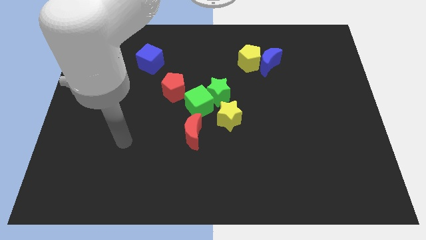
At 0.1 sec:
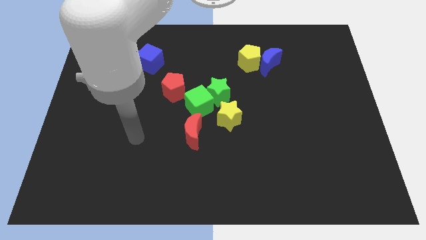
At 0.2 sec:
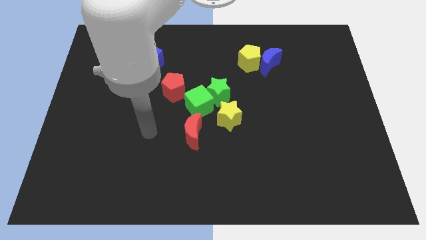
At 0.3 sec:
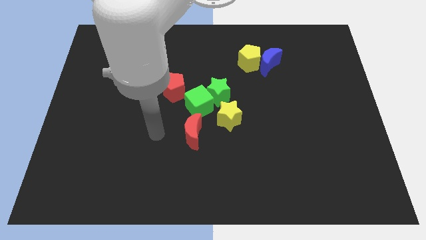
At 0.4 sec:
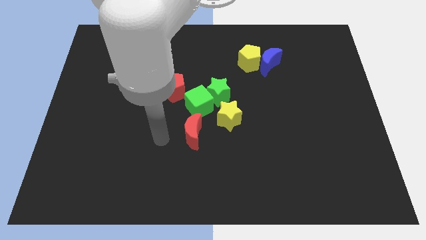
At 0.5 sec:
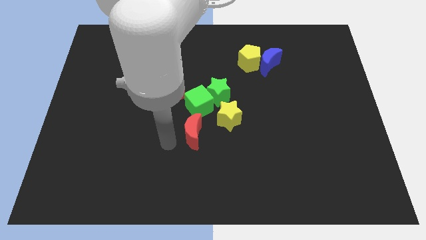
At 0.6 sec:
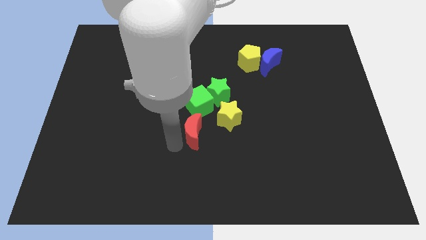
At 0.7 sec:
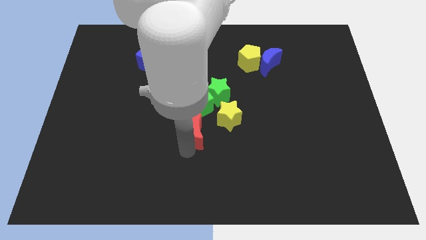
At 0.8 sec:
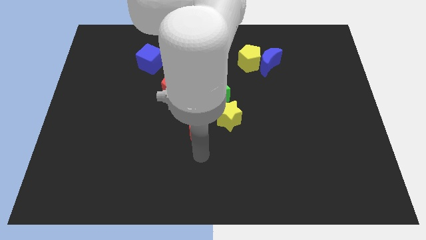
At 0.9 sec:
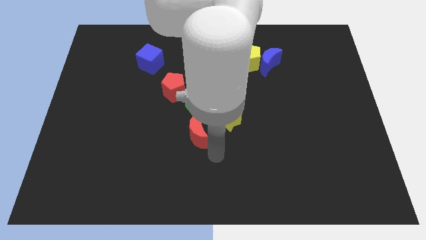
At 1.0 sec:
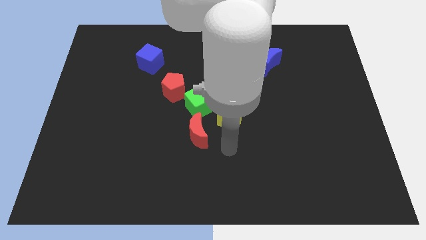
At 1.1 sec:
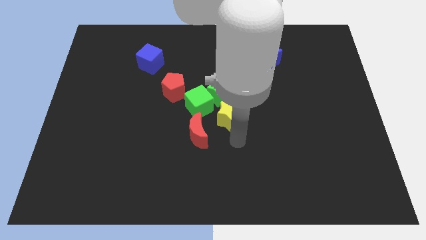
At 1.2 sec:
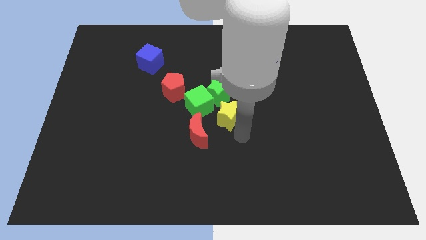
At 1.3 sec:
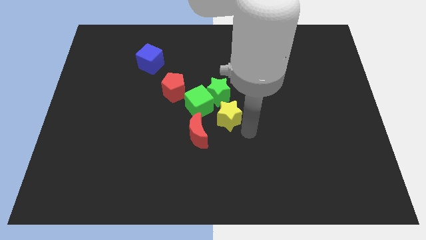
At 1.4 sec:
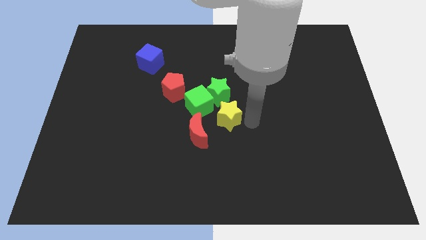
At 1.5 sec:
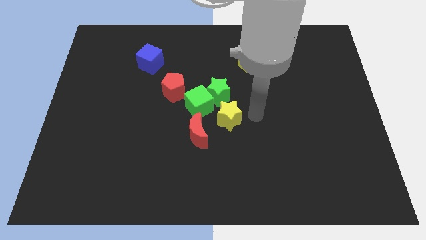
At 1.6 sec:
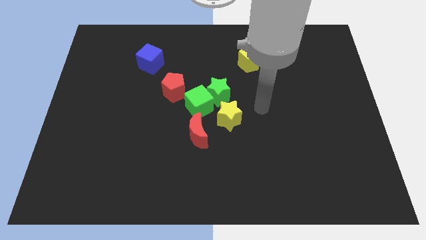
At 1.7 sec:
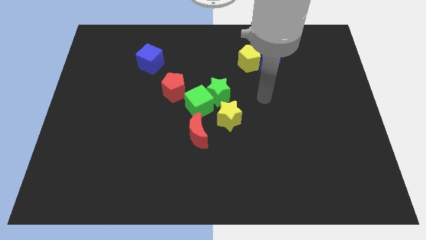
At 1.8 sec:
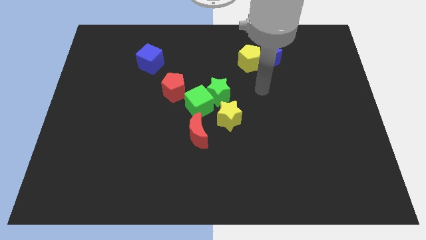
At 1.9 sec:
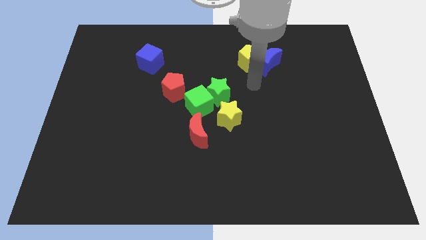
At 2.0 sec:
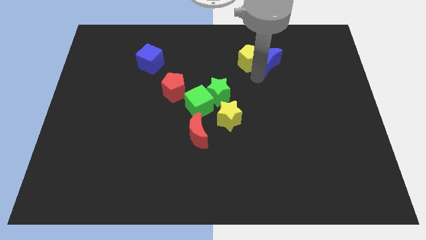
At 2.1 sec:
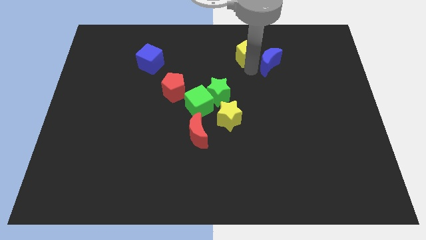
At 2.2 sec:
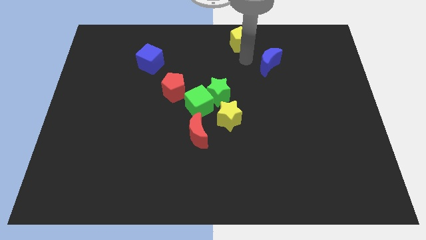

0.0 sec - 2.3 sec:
separate the blue moon from the yellow pentagon

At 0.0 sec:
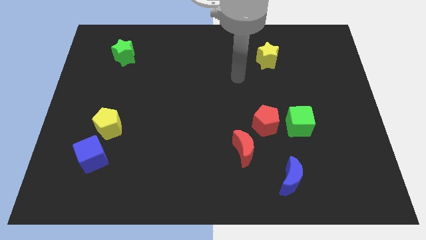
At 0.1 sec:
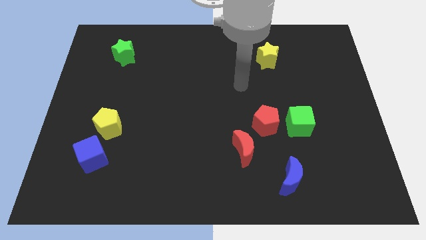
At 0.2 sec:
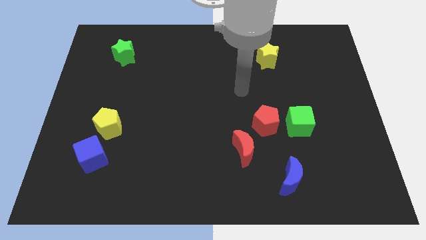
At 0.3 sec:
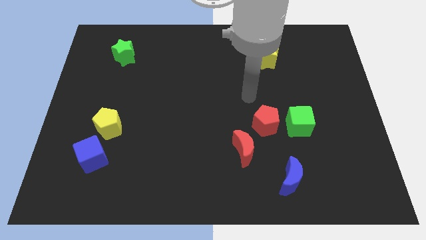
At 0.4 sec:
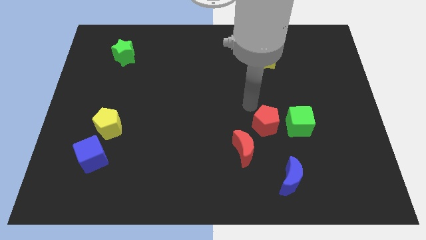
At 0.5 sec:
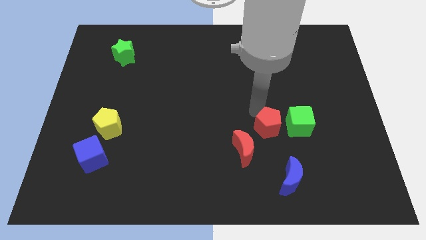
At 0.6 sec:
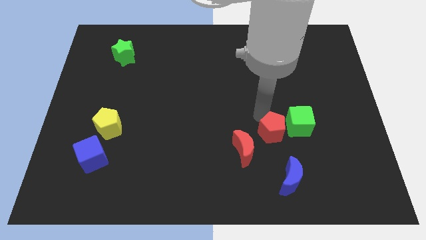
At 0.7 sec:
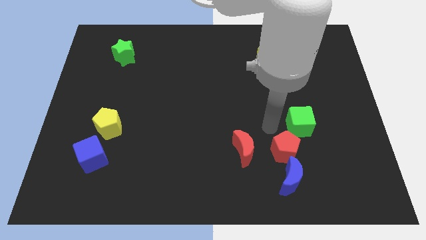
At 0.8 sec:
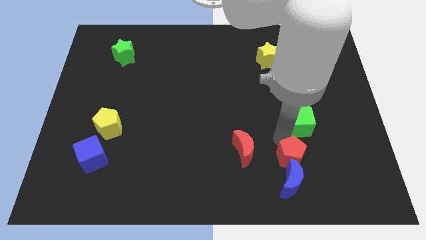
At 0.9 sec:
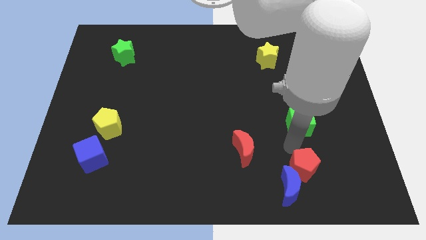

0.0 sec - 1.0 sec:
move the green cube away from the red pentagon

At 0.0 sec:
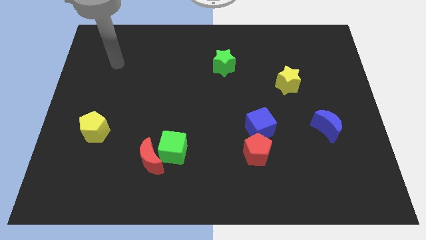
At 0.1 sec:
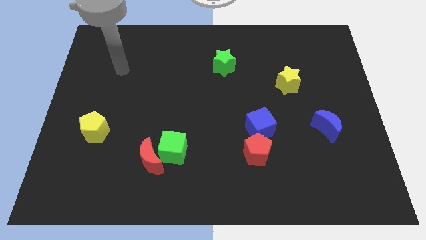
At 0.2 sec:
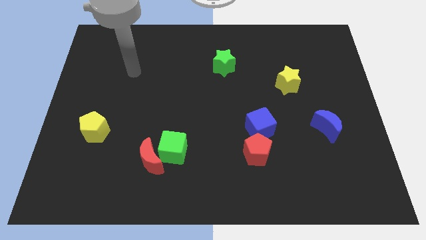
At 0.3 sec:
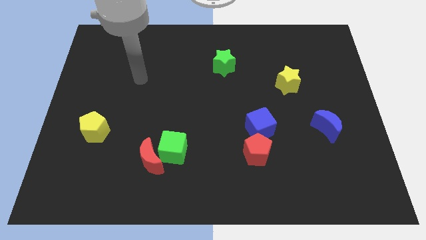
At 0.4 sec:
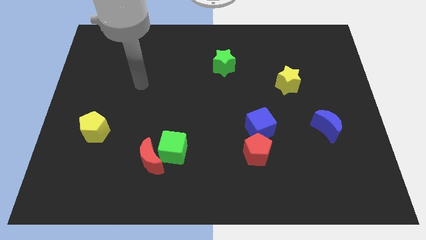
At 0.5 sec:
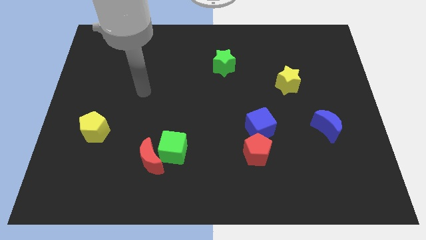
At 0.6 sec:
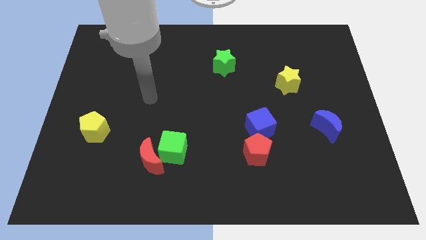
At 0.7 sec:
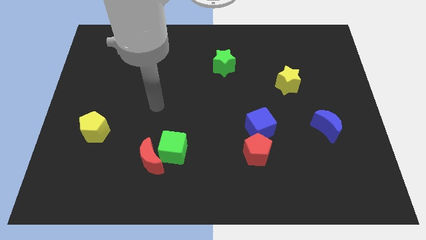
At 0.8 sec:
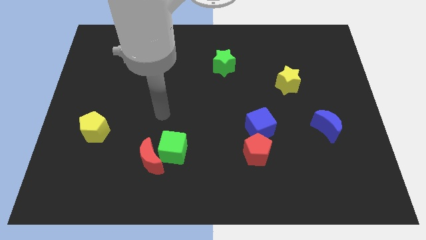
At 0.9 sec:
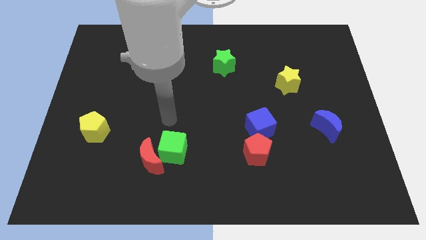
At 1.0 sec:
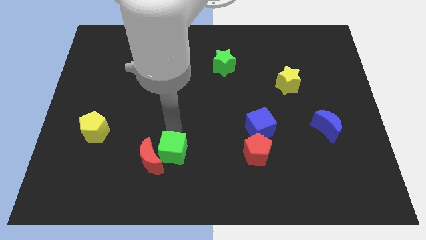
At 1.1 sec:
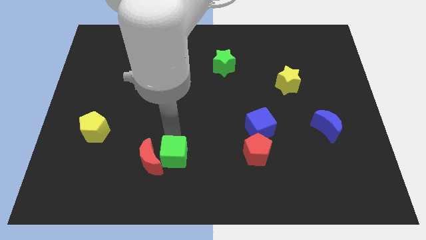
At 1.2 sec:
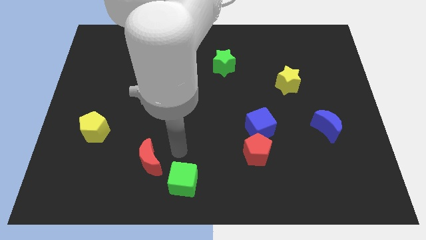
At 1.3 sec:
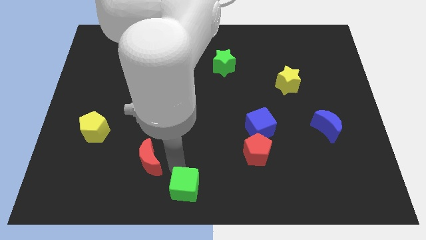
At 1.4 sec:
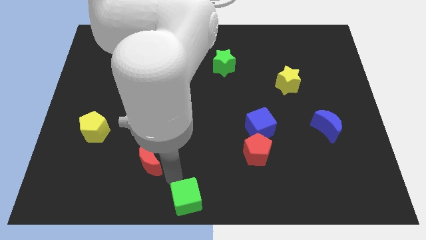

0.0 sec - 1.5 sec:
pull the red moon apart from the green cube

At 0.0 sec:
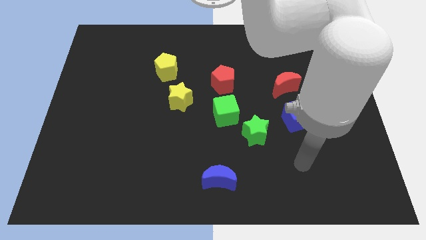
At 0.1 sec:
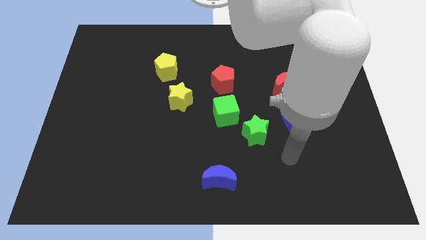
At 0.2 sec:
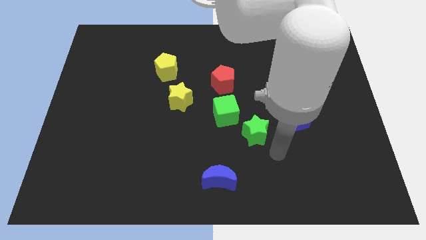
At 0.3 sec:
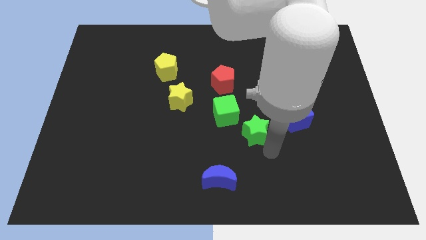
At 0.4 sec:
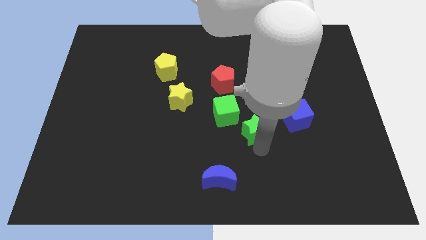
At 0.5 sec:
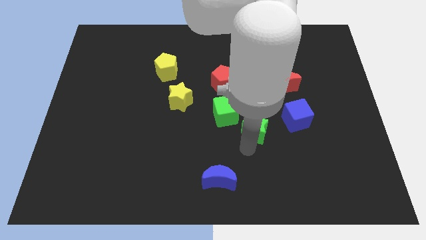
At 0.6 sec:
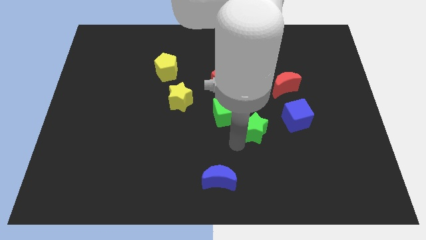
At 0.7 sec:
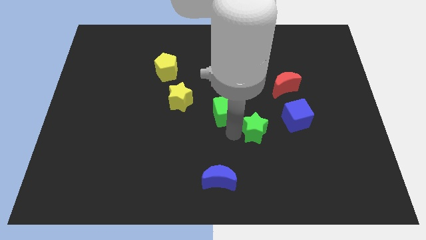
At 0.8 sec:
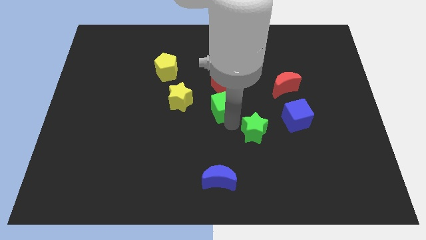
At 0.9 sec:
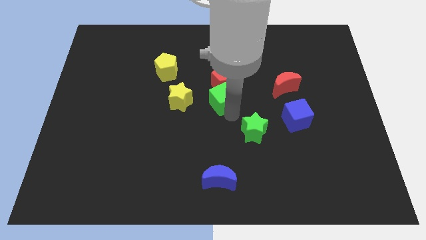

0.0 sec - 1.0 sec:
pull the green star apart from the green cube

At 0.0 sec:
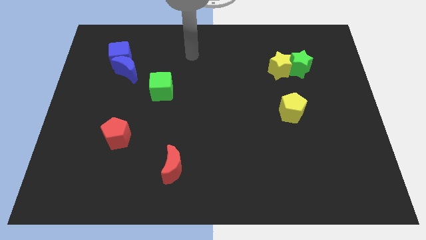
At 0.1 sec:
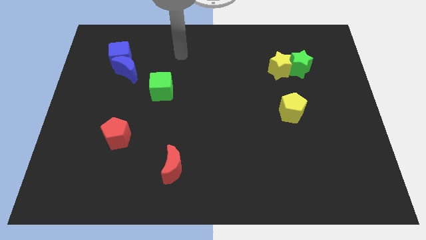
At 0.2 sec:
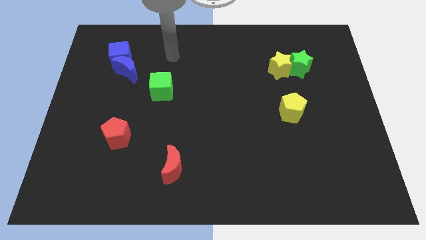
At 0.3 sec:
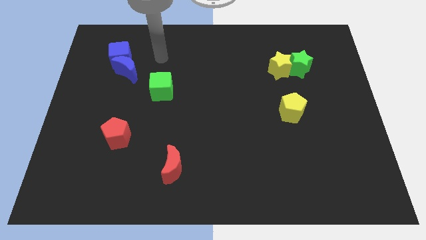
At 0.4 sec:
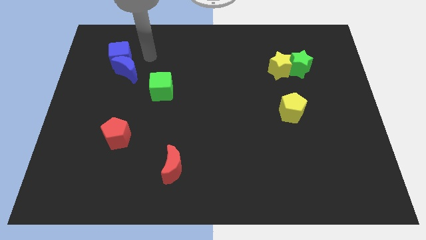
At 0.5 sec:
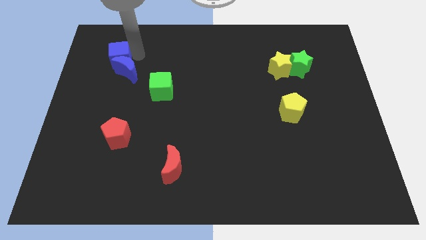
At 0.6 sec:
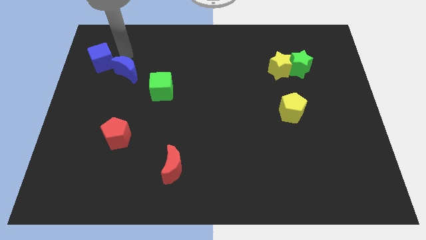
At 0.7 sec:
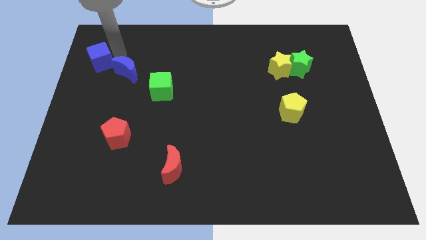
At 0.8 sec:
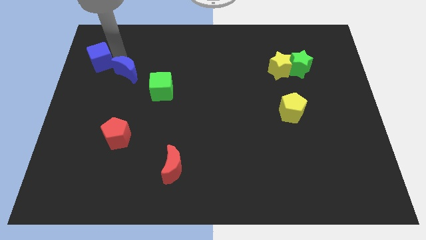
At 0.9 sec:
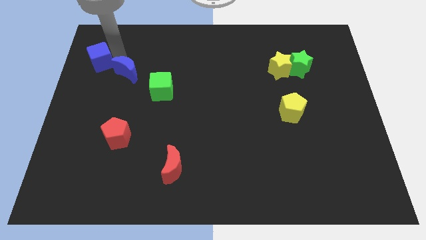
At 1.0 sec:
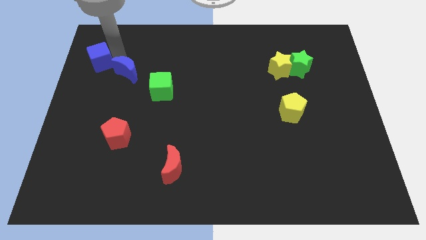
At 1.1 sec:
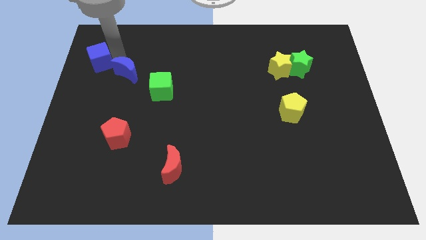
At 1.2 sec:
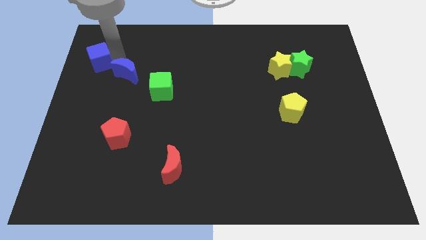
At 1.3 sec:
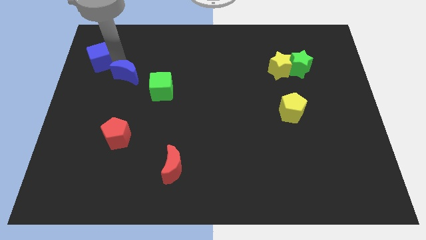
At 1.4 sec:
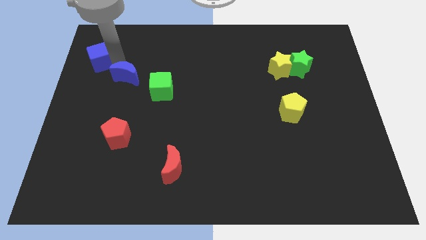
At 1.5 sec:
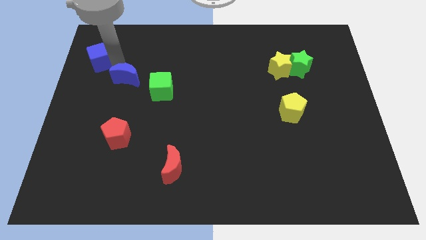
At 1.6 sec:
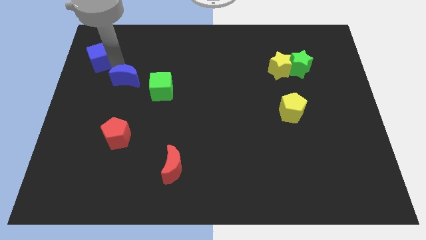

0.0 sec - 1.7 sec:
separate the blue moon from the blue cube

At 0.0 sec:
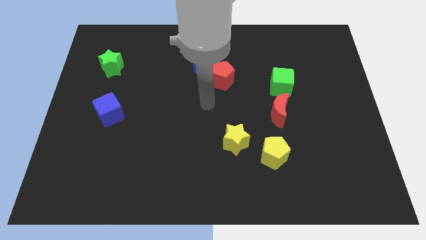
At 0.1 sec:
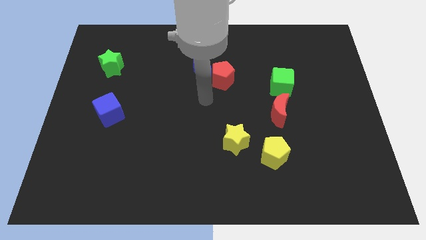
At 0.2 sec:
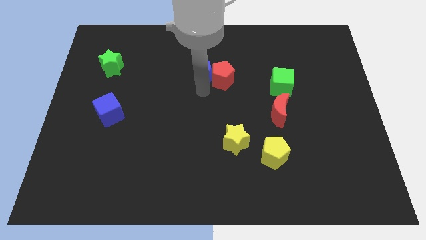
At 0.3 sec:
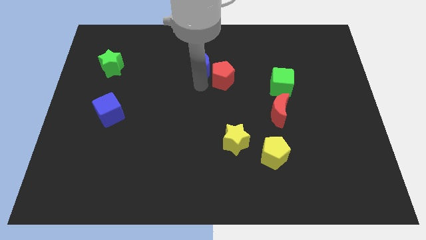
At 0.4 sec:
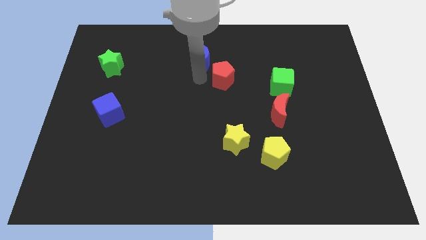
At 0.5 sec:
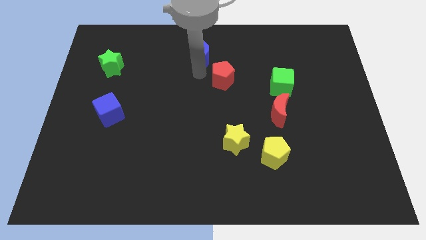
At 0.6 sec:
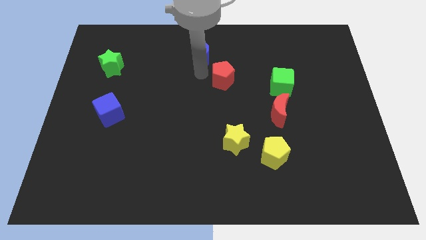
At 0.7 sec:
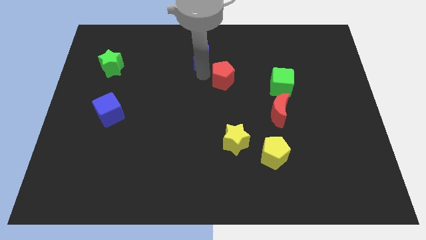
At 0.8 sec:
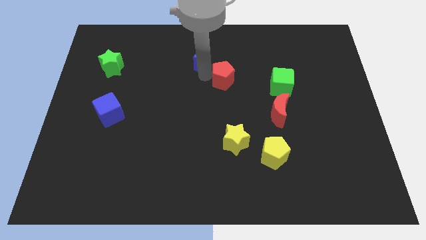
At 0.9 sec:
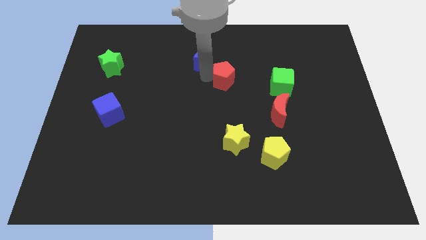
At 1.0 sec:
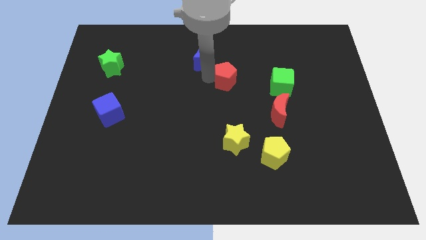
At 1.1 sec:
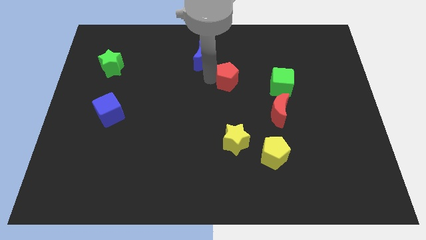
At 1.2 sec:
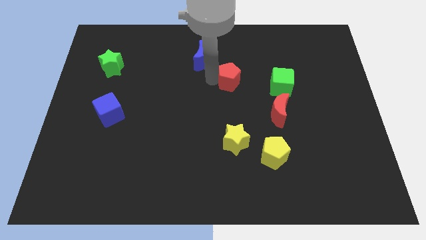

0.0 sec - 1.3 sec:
pull the red pentagon apart from the blue moon

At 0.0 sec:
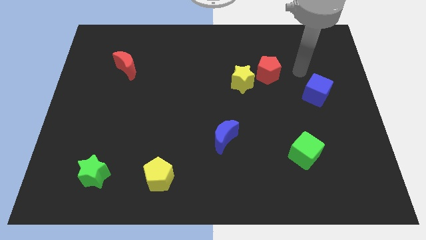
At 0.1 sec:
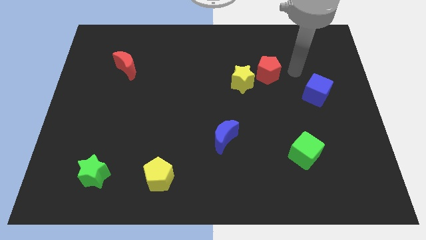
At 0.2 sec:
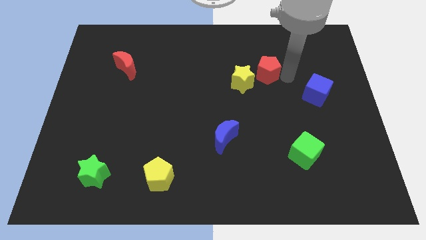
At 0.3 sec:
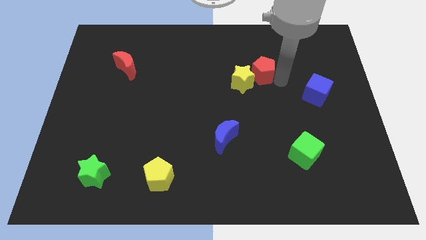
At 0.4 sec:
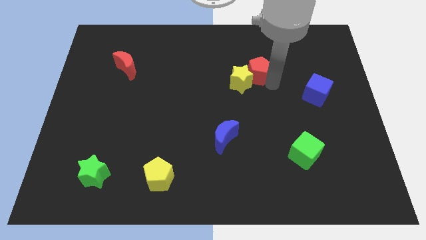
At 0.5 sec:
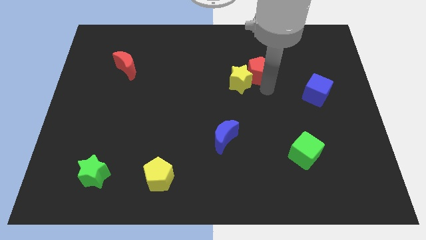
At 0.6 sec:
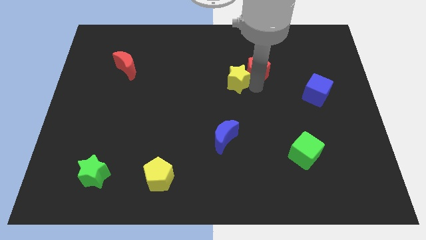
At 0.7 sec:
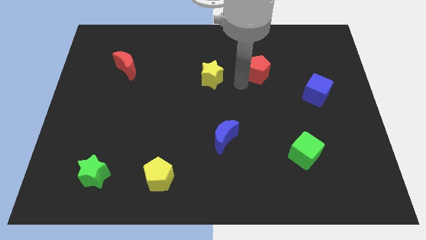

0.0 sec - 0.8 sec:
move the red pentagon away from the yellow star
